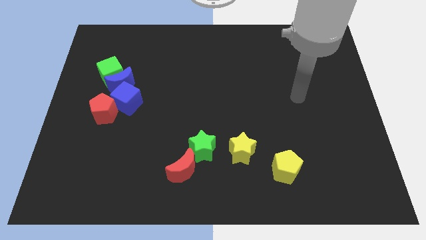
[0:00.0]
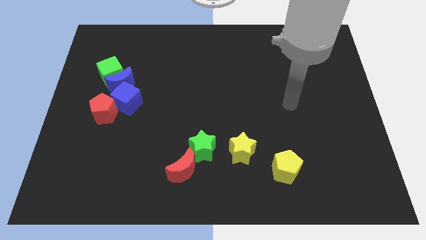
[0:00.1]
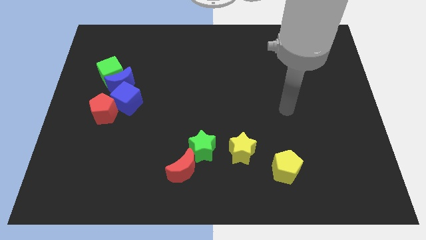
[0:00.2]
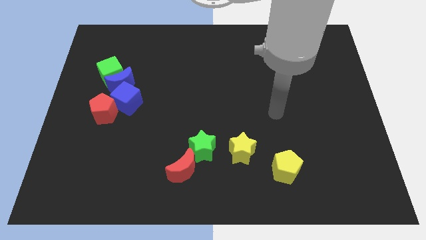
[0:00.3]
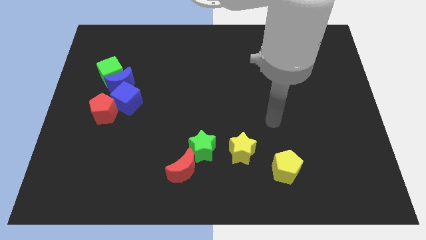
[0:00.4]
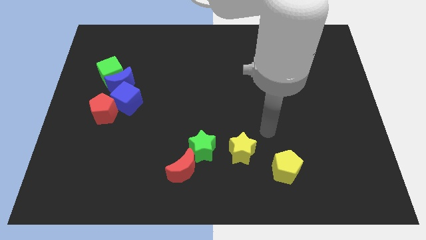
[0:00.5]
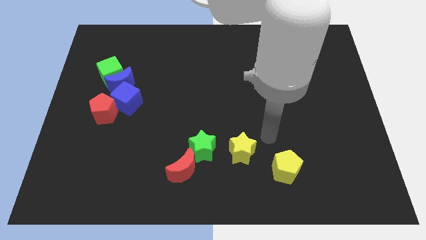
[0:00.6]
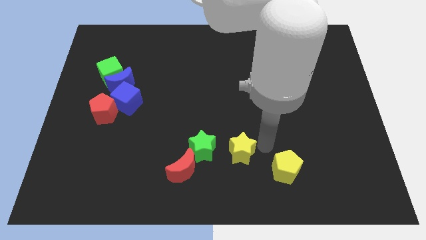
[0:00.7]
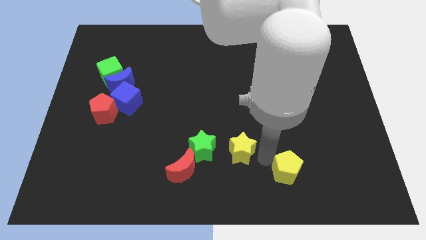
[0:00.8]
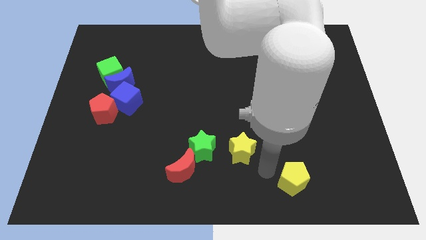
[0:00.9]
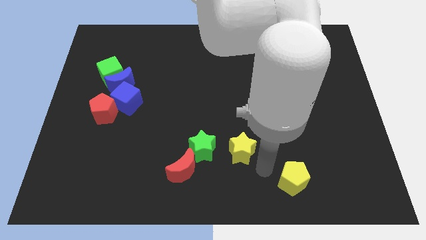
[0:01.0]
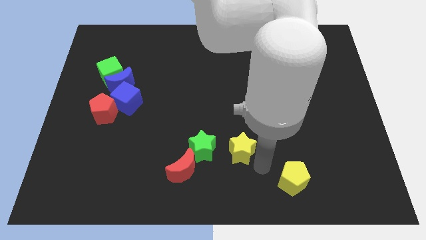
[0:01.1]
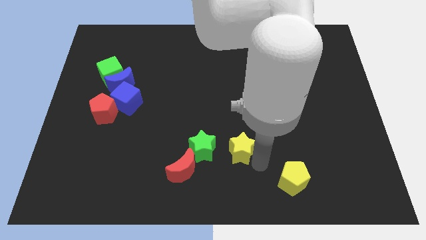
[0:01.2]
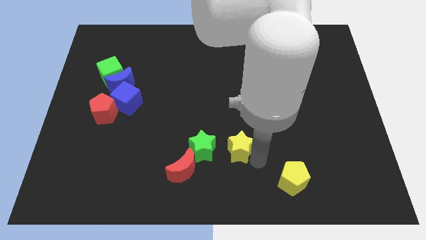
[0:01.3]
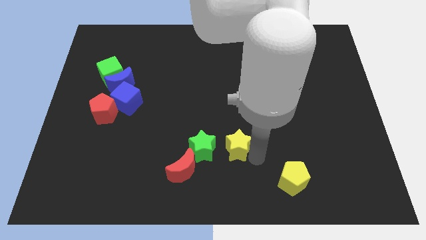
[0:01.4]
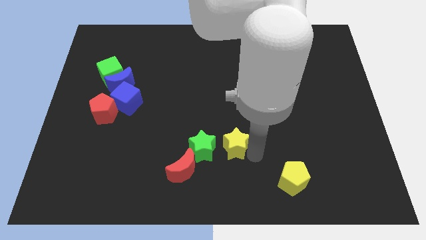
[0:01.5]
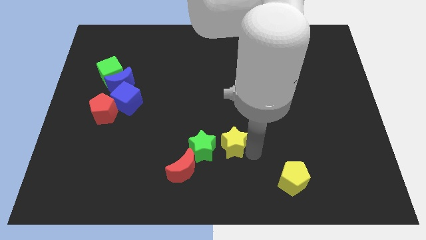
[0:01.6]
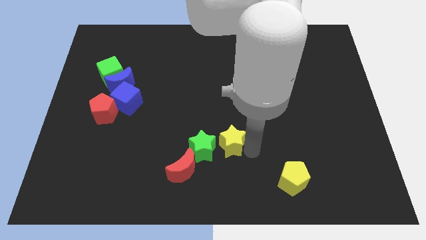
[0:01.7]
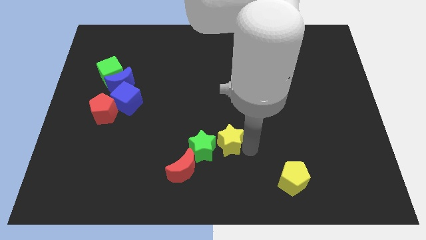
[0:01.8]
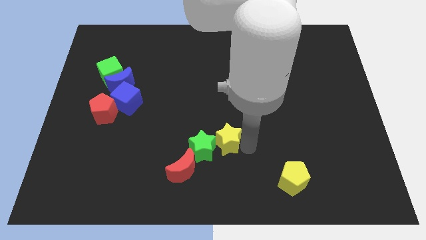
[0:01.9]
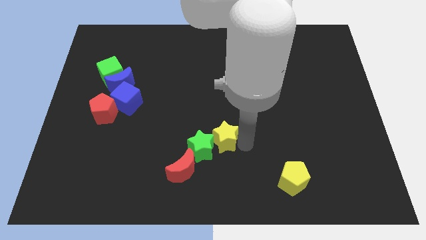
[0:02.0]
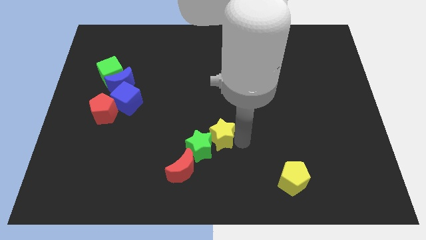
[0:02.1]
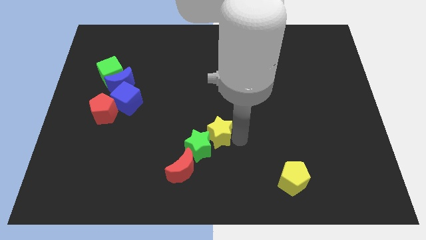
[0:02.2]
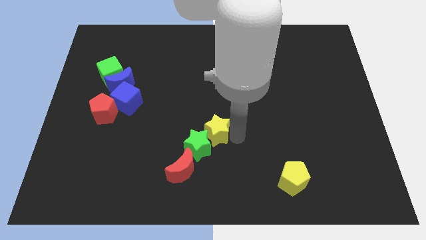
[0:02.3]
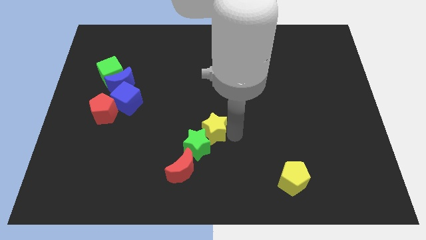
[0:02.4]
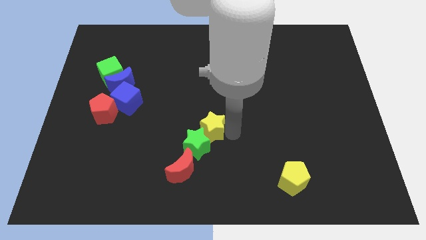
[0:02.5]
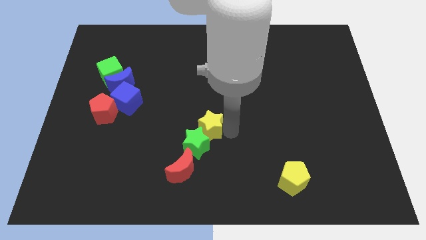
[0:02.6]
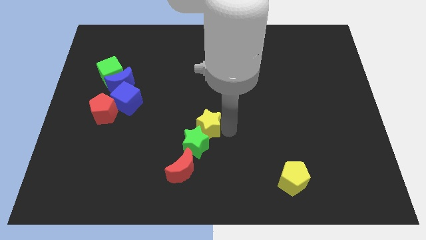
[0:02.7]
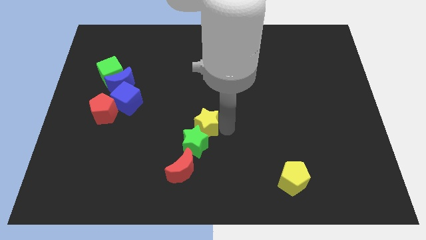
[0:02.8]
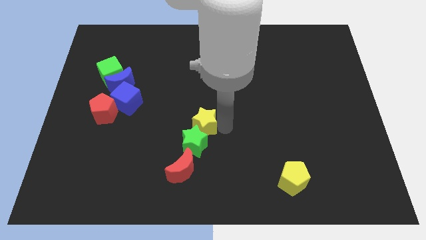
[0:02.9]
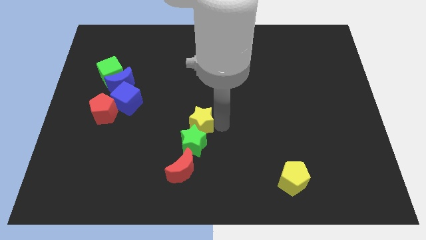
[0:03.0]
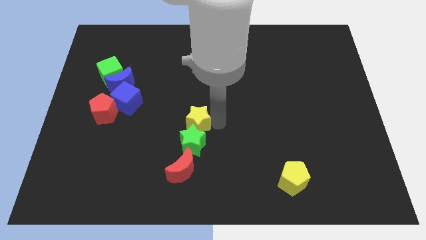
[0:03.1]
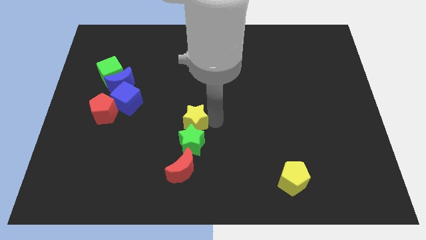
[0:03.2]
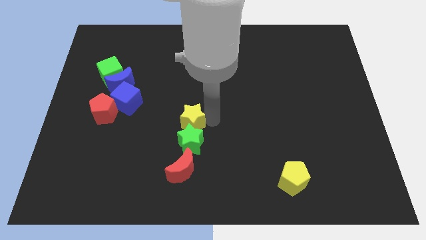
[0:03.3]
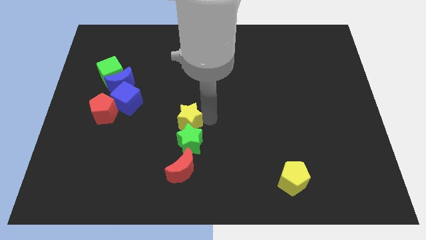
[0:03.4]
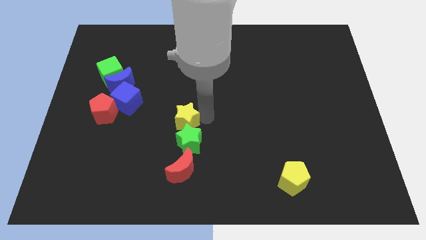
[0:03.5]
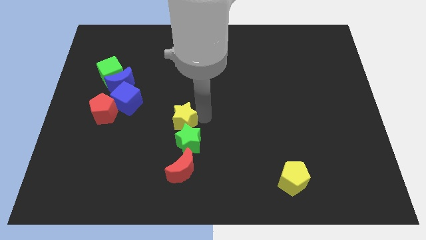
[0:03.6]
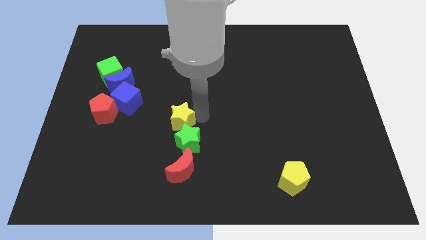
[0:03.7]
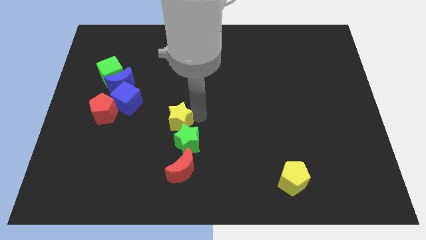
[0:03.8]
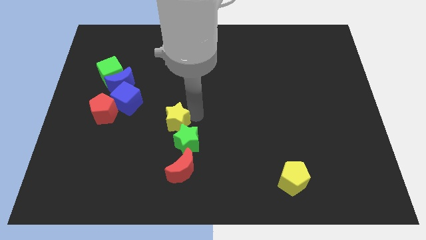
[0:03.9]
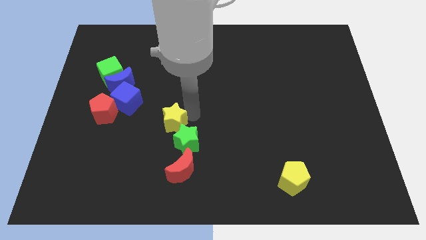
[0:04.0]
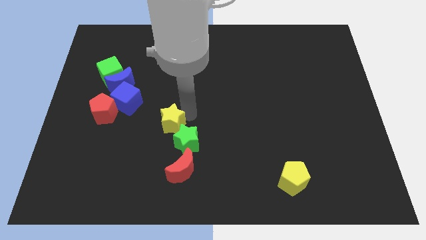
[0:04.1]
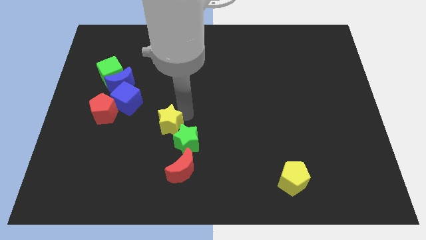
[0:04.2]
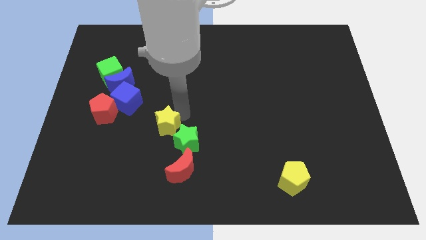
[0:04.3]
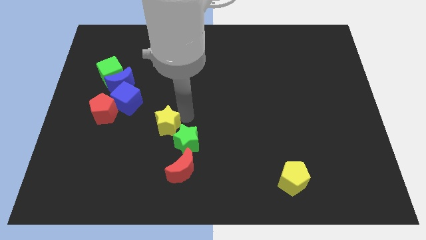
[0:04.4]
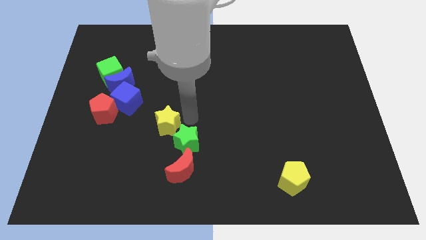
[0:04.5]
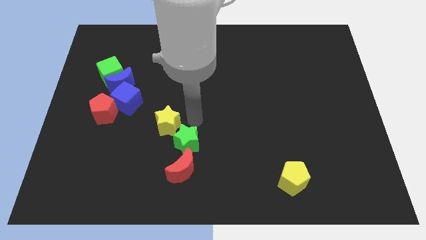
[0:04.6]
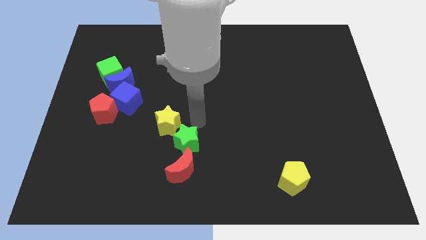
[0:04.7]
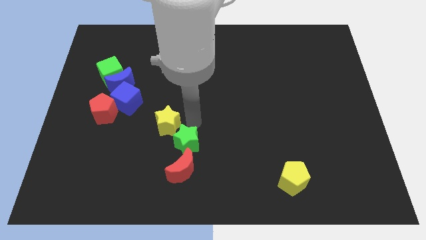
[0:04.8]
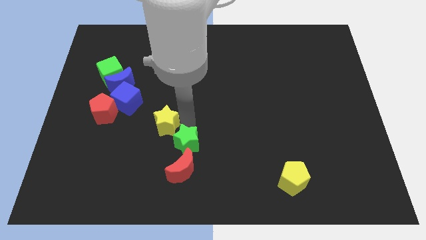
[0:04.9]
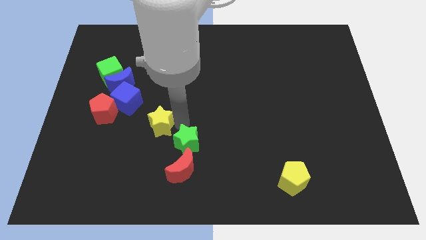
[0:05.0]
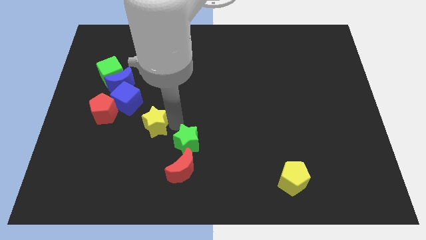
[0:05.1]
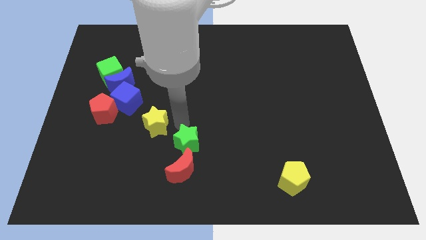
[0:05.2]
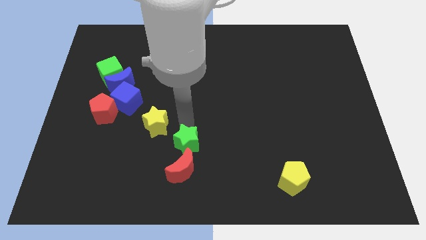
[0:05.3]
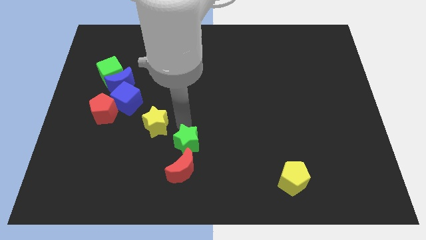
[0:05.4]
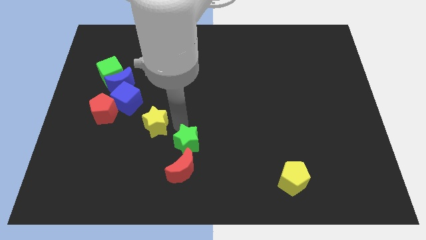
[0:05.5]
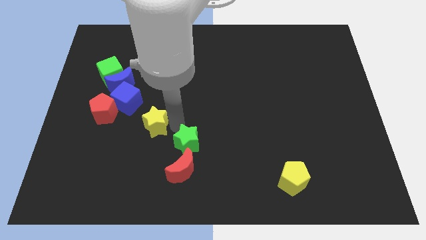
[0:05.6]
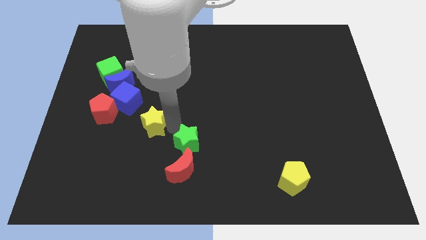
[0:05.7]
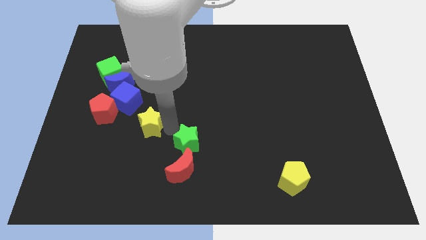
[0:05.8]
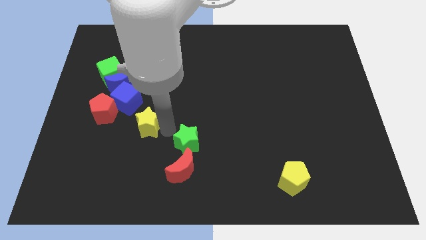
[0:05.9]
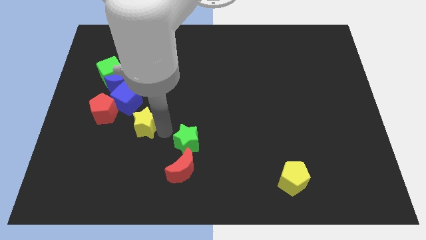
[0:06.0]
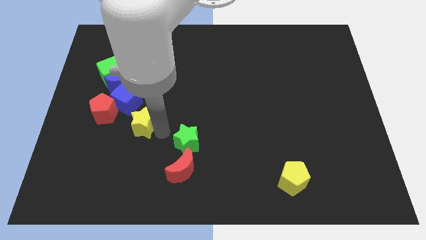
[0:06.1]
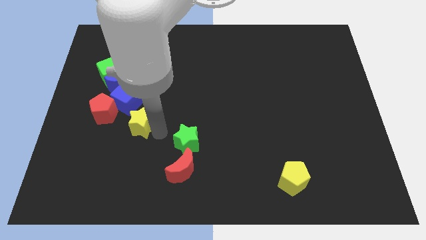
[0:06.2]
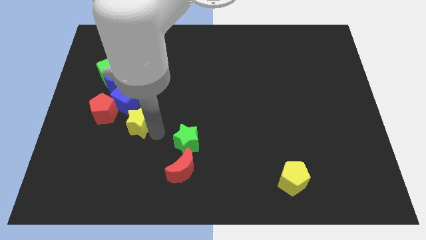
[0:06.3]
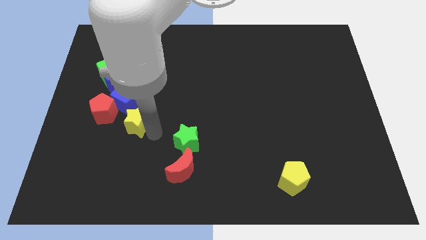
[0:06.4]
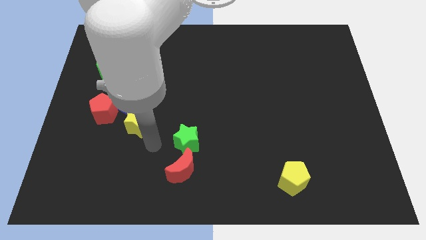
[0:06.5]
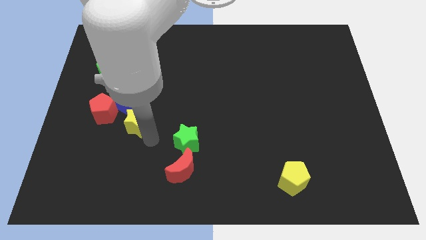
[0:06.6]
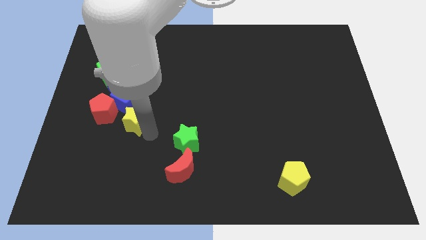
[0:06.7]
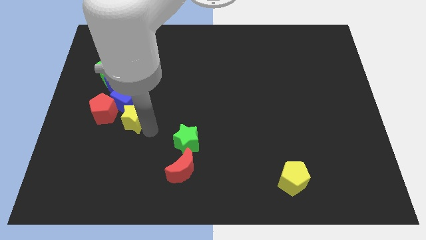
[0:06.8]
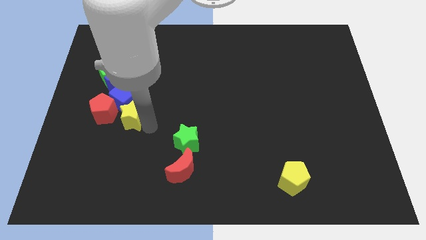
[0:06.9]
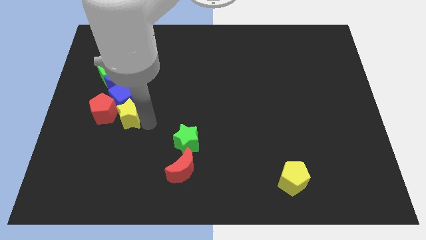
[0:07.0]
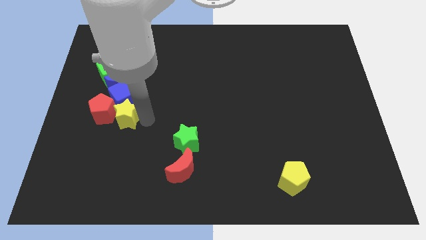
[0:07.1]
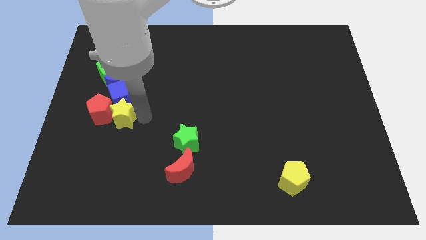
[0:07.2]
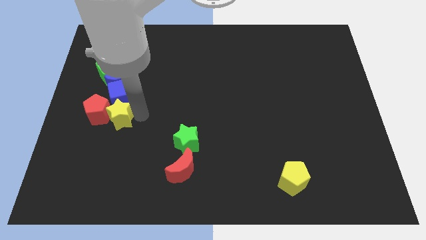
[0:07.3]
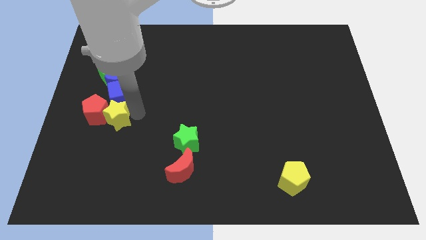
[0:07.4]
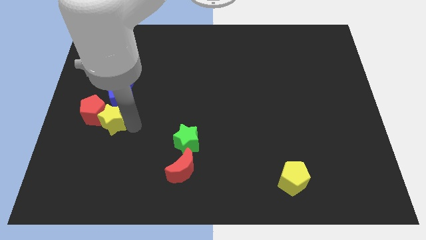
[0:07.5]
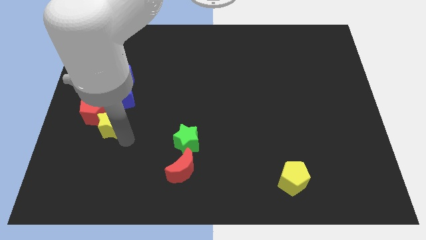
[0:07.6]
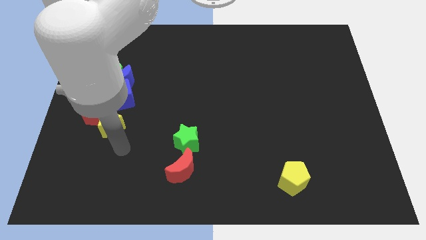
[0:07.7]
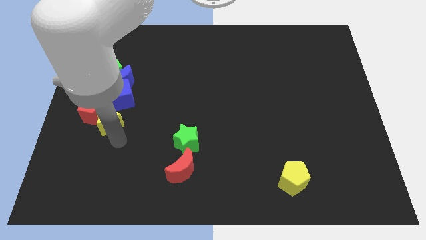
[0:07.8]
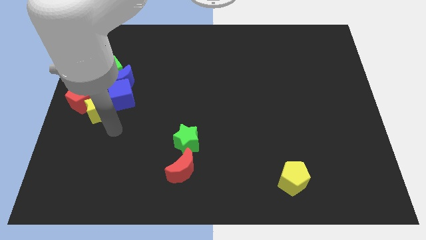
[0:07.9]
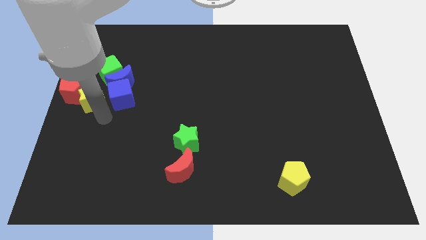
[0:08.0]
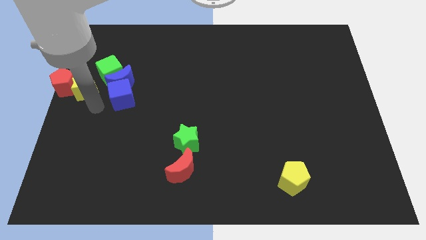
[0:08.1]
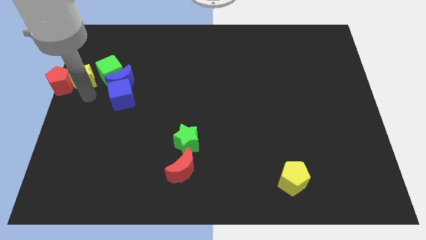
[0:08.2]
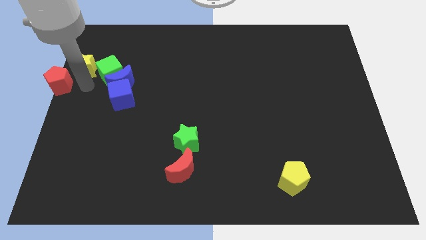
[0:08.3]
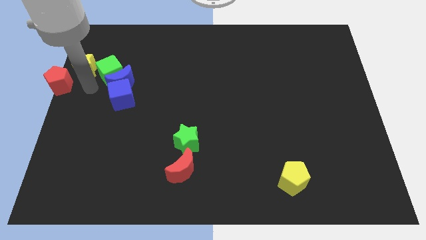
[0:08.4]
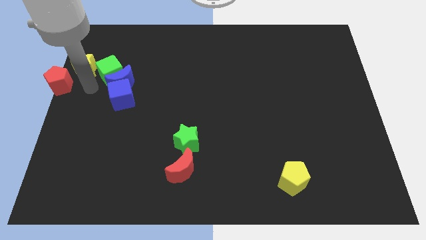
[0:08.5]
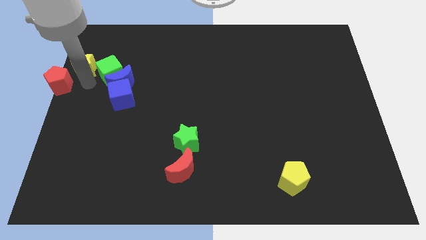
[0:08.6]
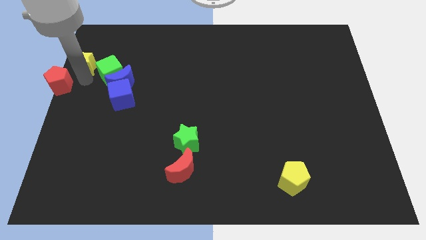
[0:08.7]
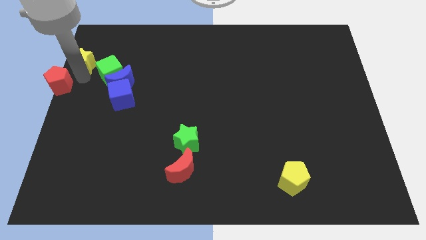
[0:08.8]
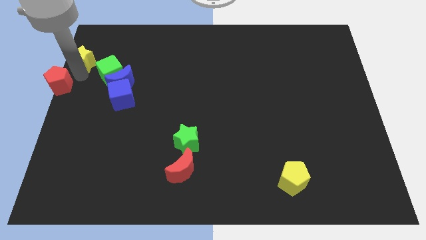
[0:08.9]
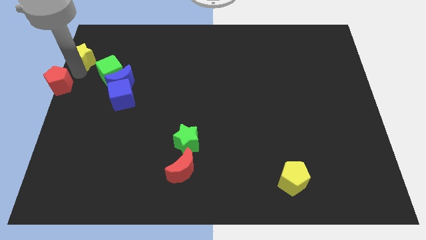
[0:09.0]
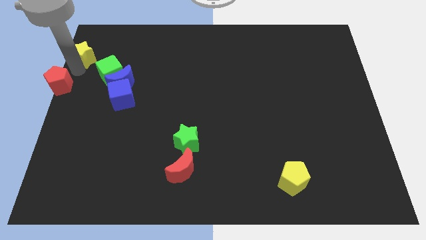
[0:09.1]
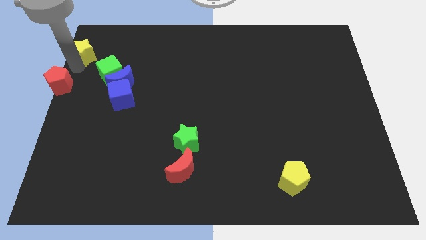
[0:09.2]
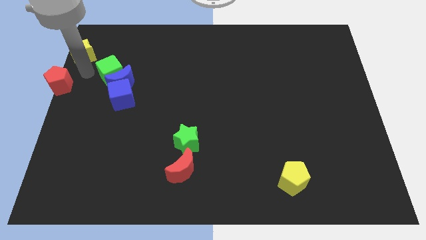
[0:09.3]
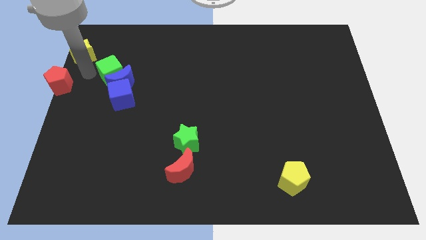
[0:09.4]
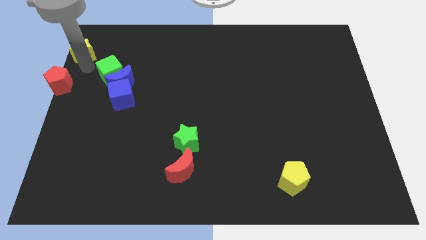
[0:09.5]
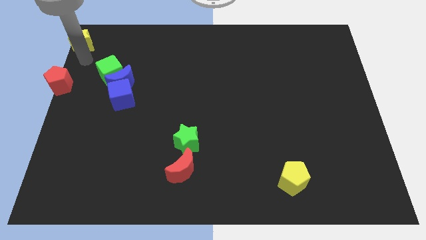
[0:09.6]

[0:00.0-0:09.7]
put the yellow star to the top left corner
